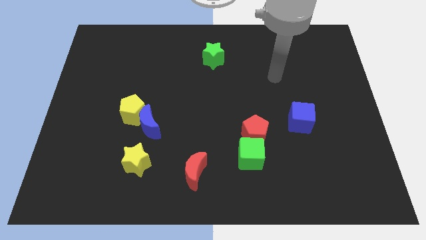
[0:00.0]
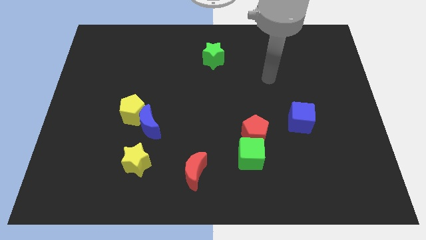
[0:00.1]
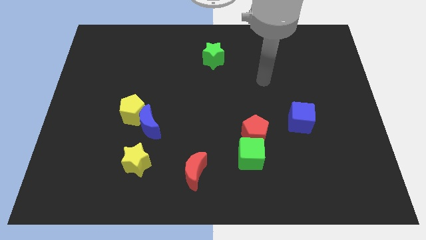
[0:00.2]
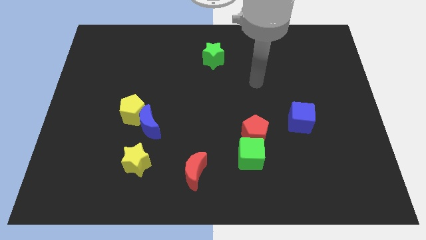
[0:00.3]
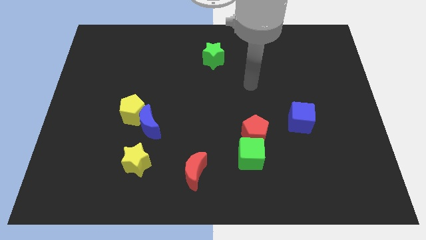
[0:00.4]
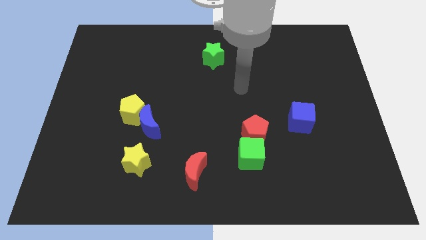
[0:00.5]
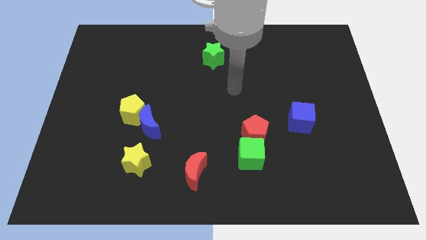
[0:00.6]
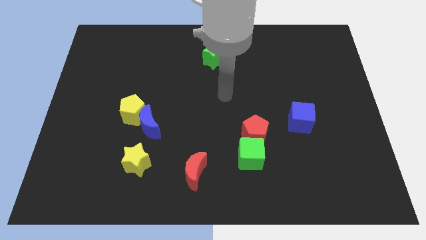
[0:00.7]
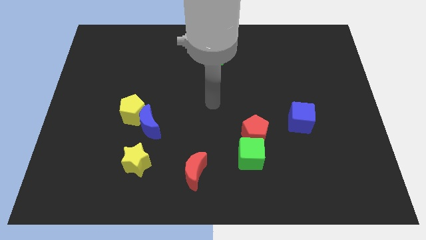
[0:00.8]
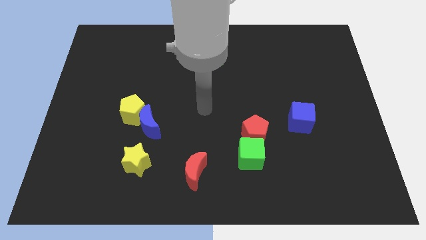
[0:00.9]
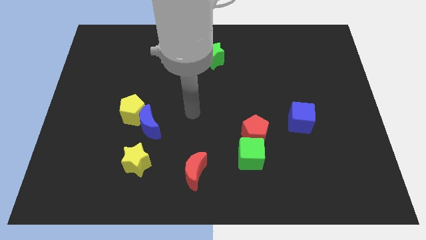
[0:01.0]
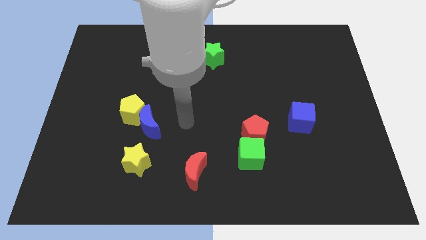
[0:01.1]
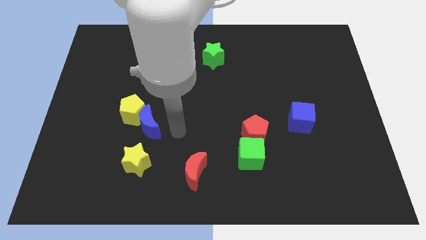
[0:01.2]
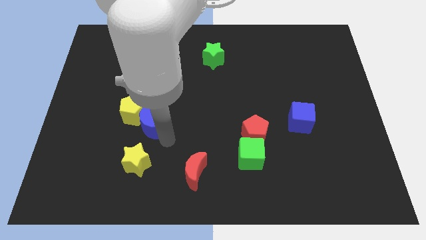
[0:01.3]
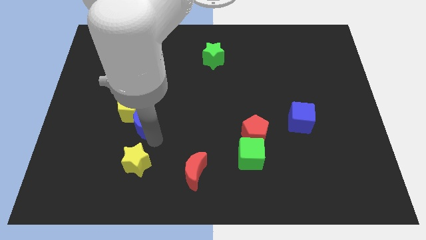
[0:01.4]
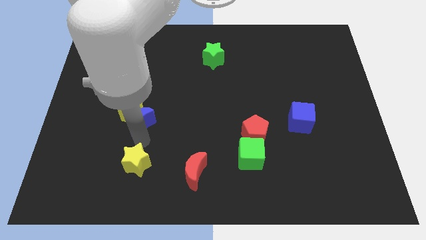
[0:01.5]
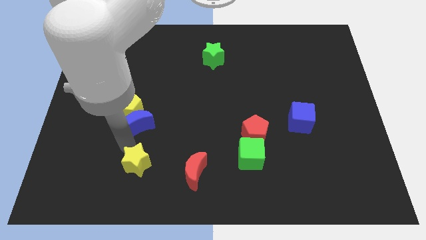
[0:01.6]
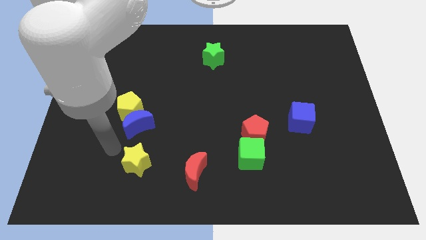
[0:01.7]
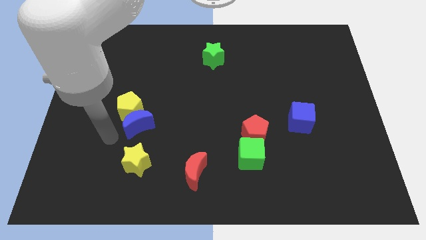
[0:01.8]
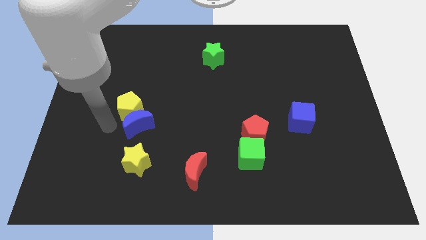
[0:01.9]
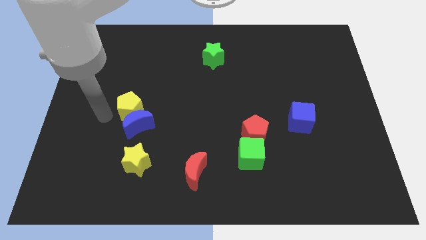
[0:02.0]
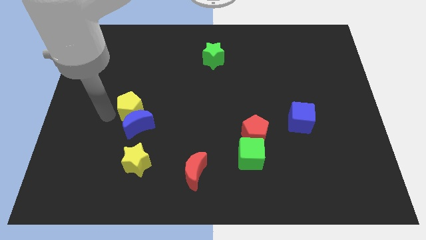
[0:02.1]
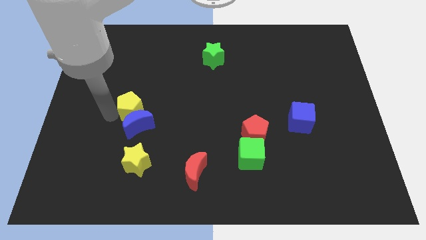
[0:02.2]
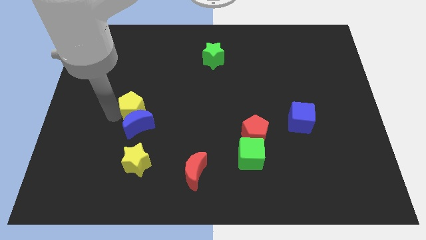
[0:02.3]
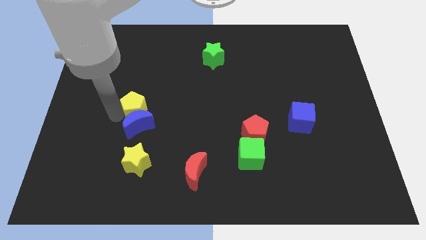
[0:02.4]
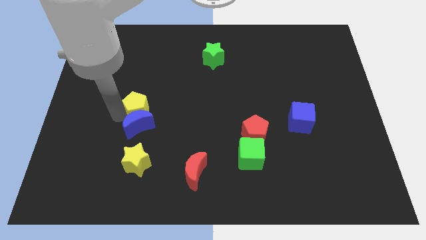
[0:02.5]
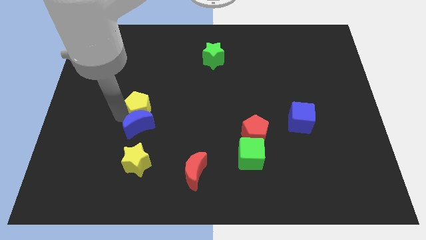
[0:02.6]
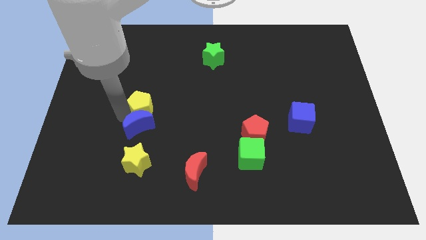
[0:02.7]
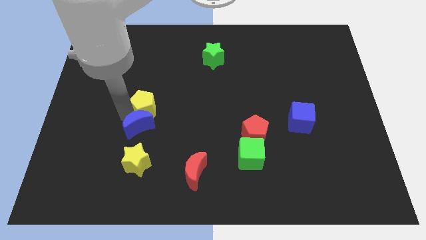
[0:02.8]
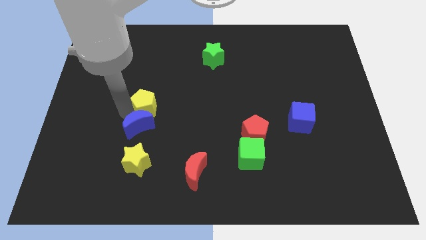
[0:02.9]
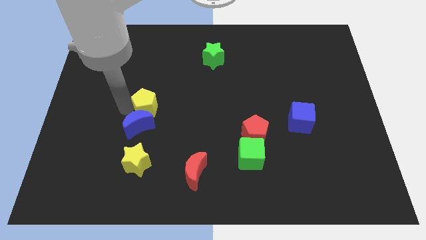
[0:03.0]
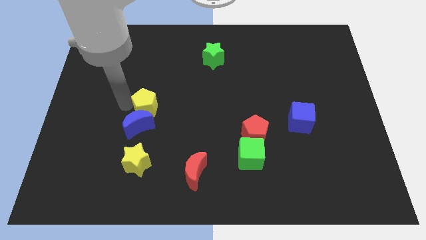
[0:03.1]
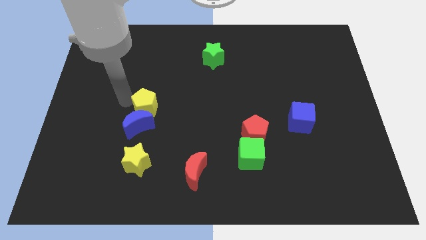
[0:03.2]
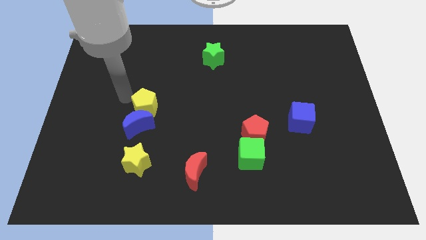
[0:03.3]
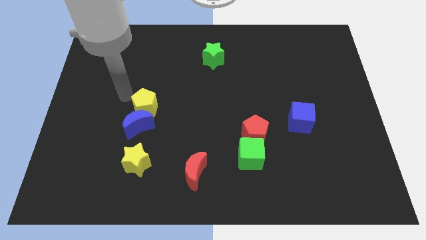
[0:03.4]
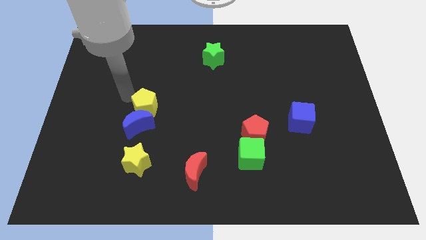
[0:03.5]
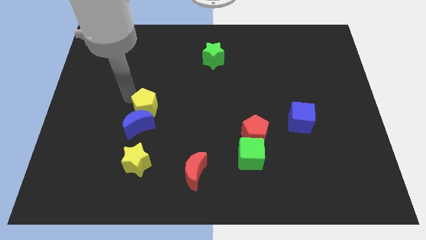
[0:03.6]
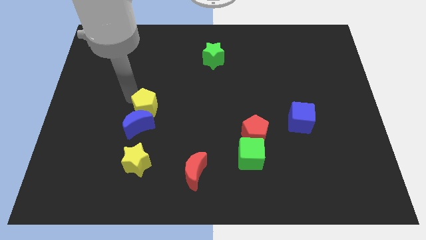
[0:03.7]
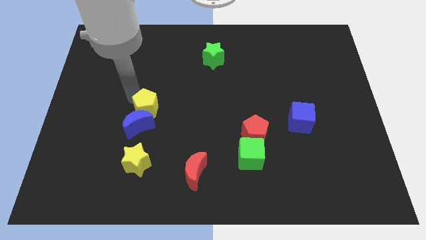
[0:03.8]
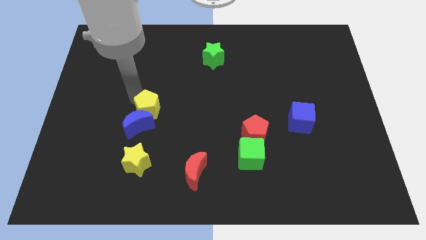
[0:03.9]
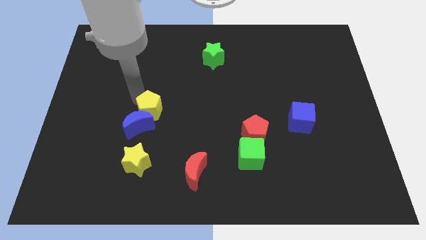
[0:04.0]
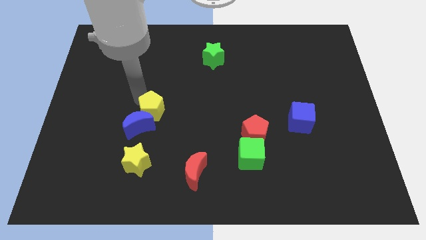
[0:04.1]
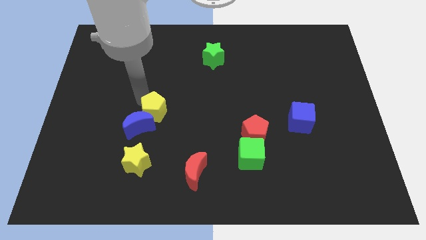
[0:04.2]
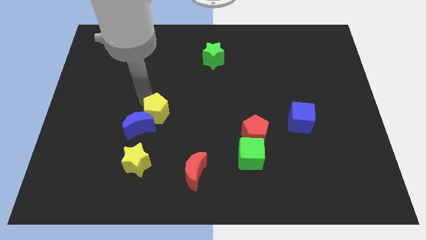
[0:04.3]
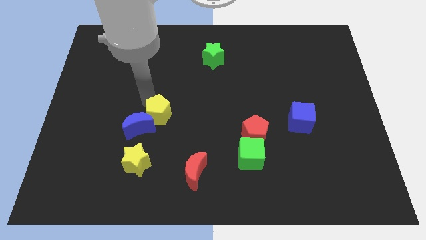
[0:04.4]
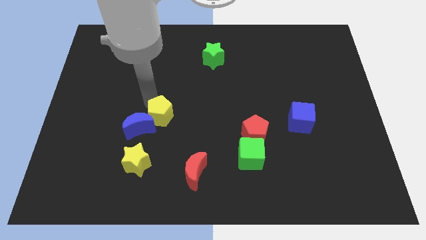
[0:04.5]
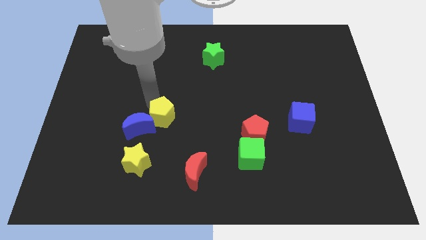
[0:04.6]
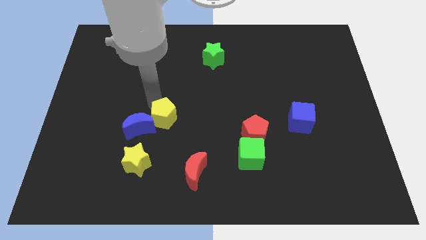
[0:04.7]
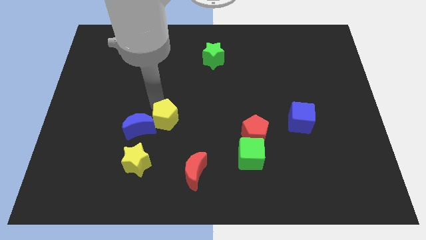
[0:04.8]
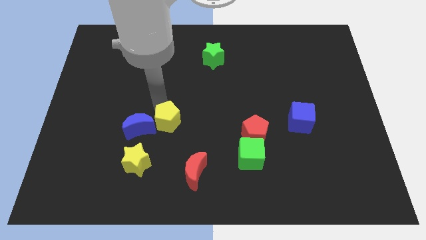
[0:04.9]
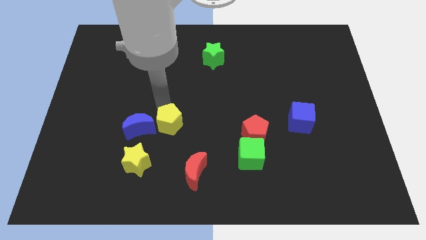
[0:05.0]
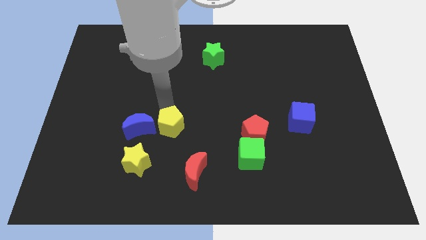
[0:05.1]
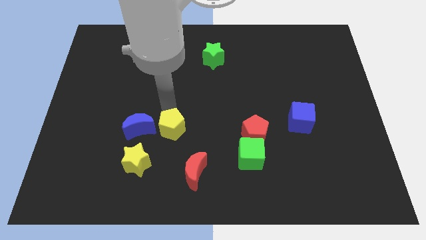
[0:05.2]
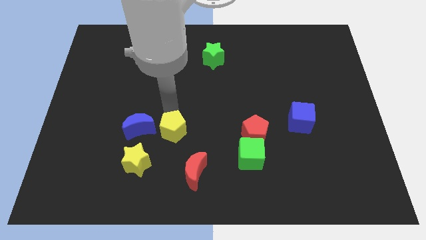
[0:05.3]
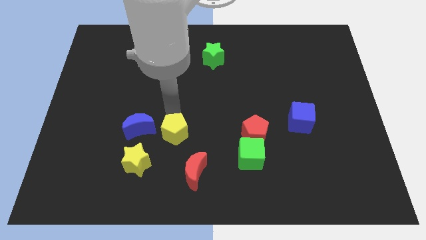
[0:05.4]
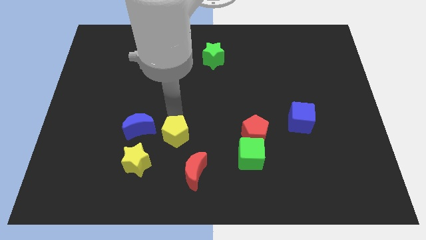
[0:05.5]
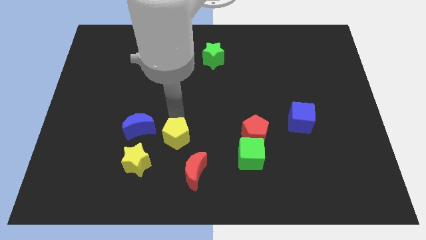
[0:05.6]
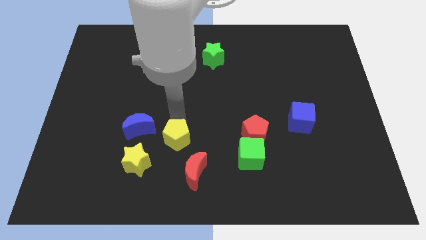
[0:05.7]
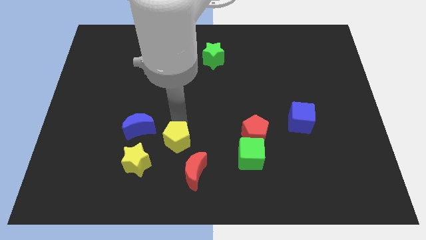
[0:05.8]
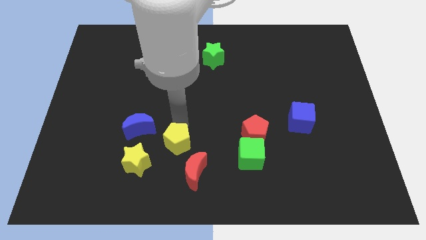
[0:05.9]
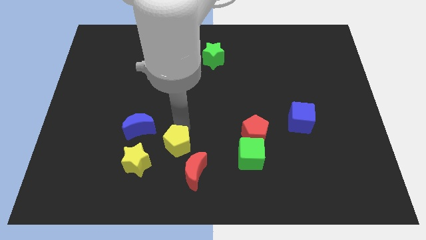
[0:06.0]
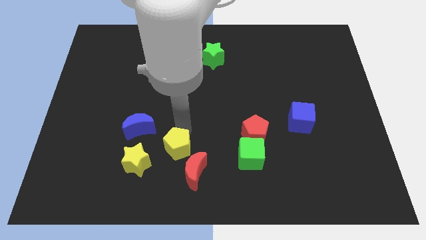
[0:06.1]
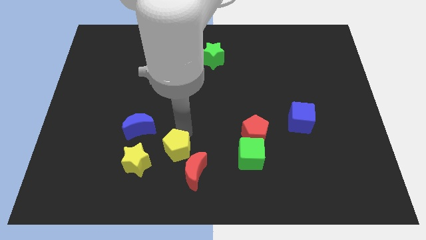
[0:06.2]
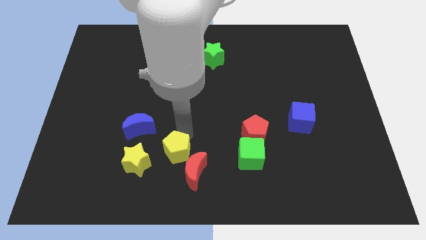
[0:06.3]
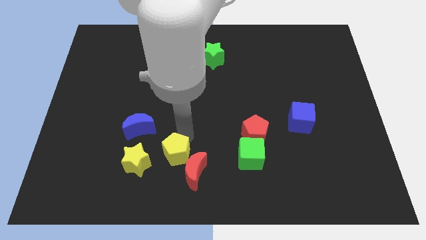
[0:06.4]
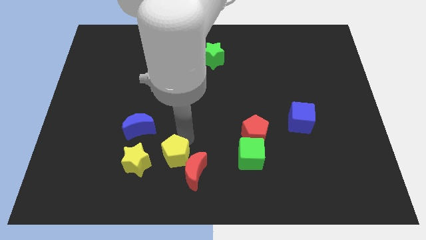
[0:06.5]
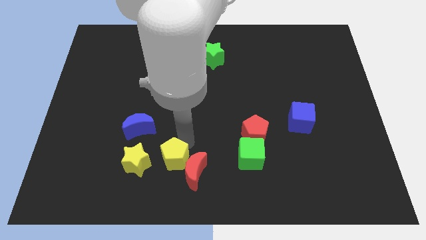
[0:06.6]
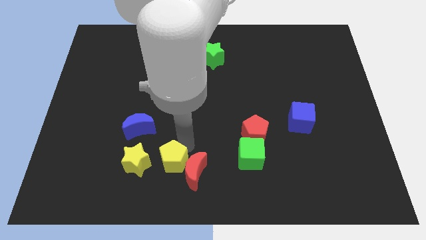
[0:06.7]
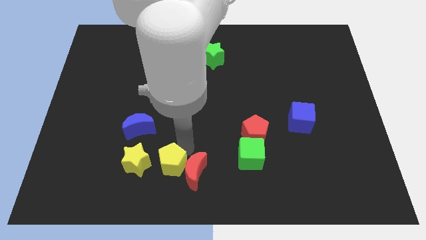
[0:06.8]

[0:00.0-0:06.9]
move the yellow pentagon to the bottom
